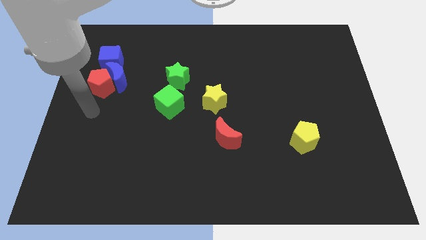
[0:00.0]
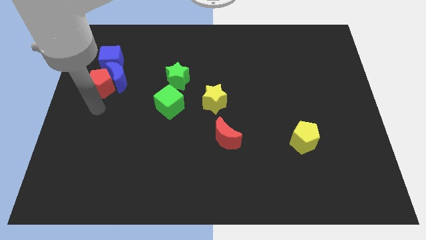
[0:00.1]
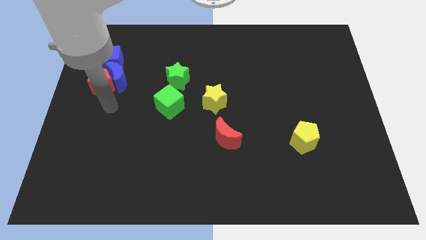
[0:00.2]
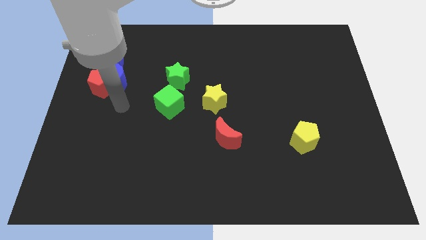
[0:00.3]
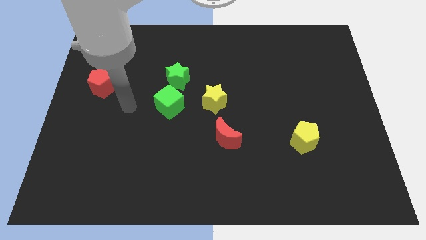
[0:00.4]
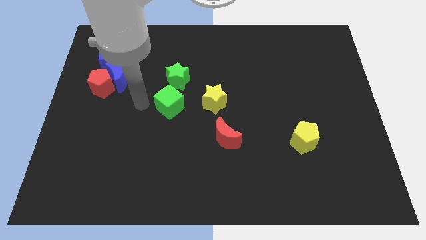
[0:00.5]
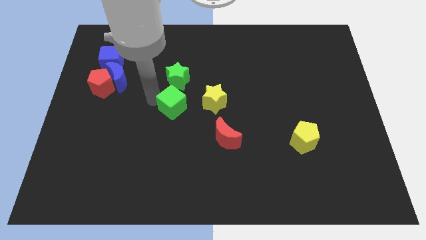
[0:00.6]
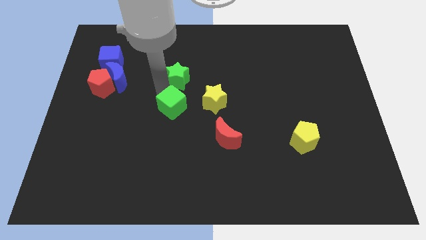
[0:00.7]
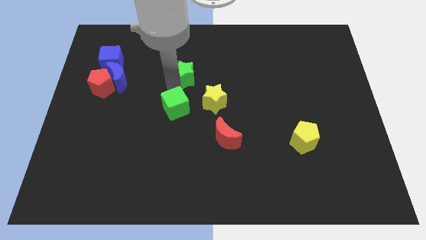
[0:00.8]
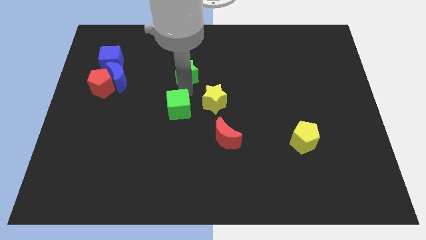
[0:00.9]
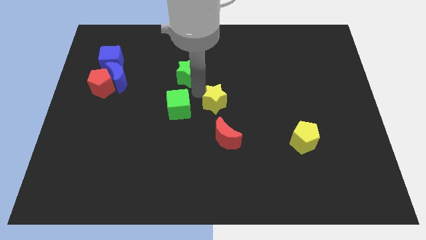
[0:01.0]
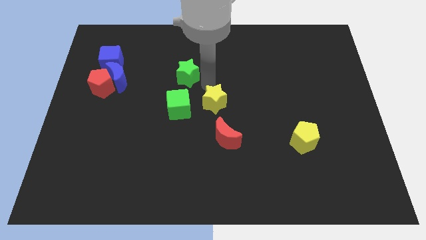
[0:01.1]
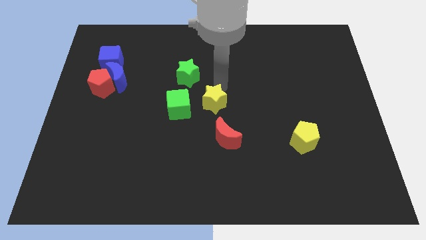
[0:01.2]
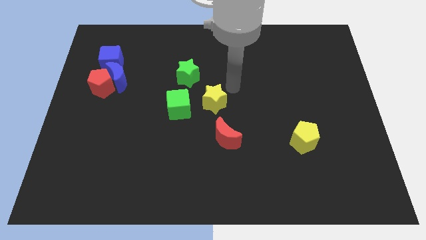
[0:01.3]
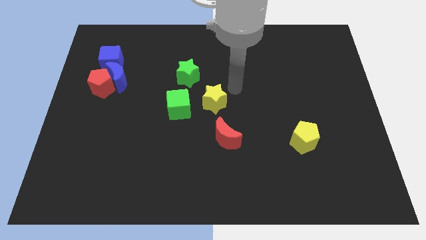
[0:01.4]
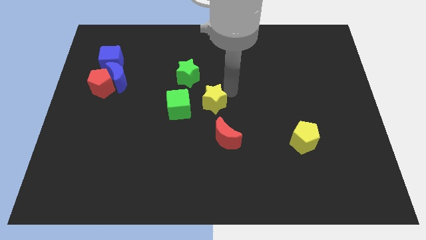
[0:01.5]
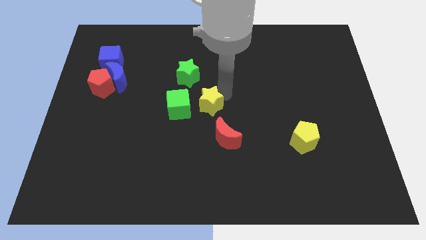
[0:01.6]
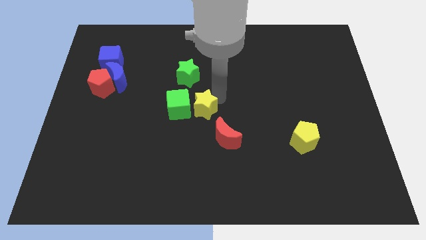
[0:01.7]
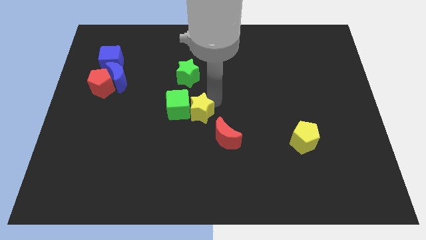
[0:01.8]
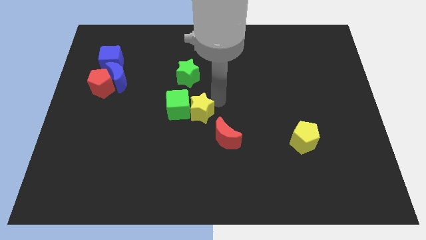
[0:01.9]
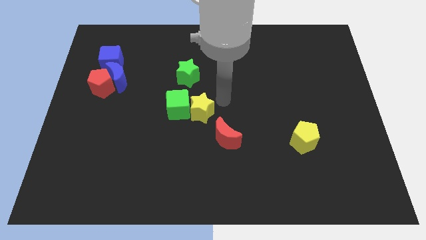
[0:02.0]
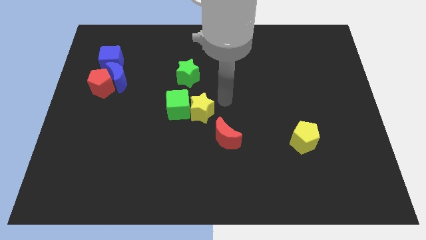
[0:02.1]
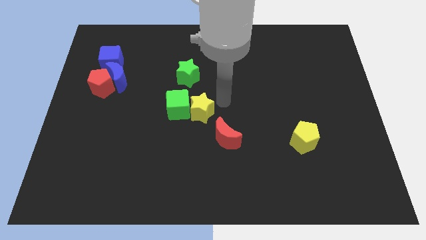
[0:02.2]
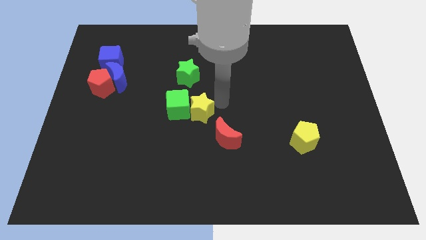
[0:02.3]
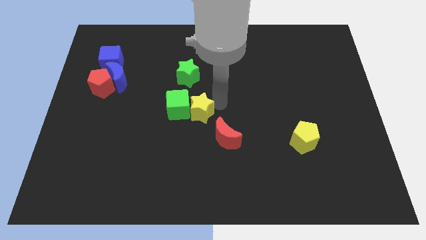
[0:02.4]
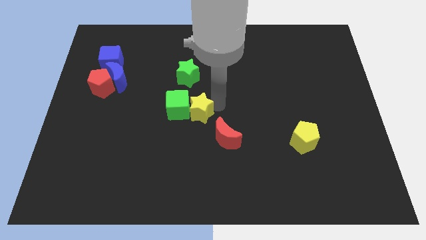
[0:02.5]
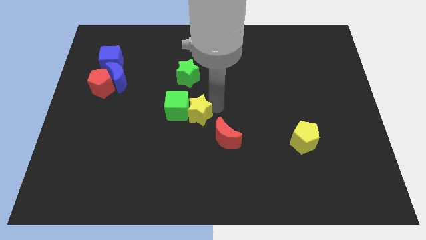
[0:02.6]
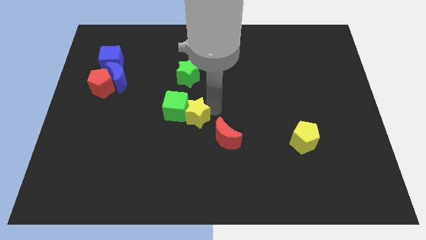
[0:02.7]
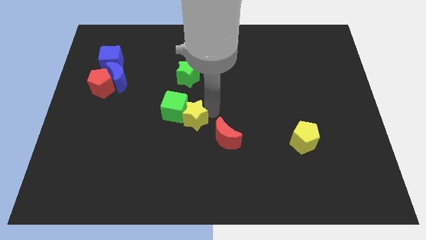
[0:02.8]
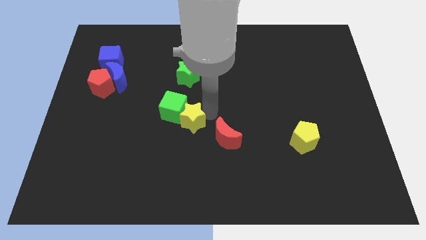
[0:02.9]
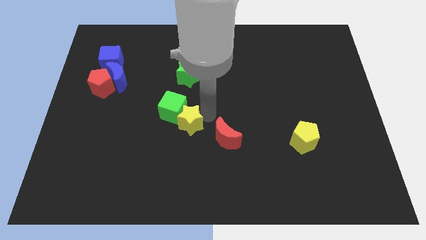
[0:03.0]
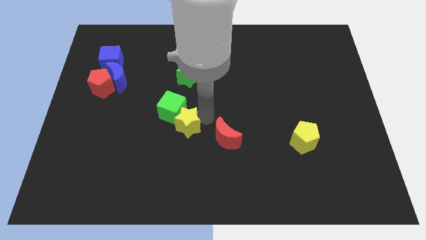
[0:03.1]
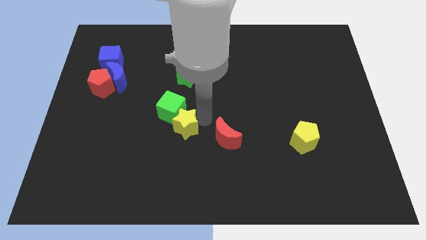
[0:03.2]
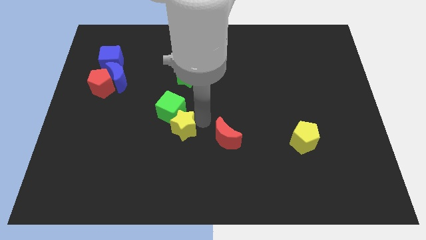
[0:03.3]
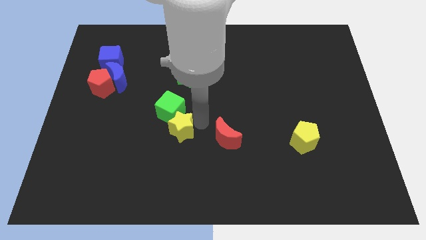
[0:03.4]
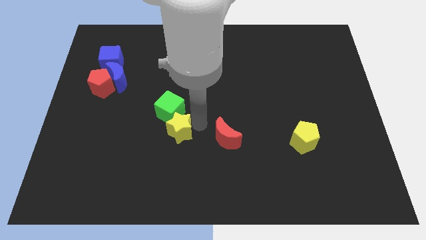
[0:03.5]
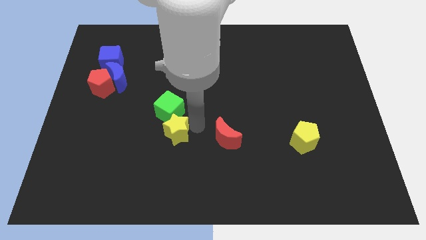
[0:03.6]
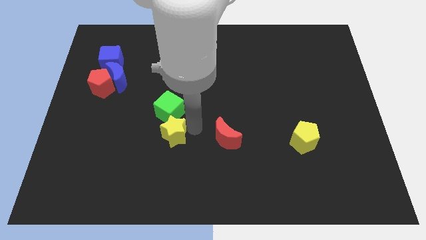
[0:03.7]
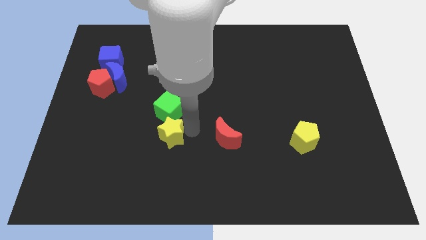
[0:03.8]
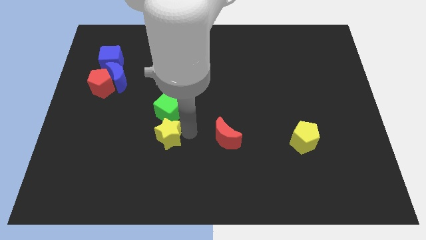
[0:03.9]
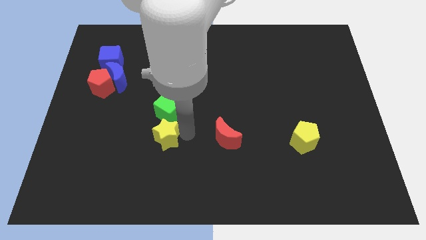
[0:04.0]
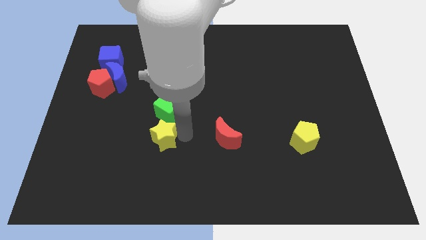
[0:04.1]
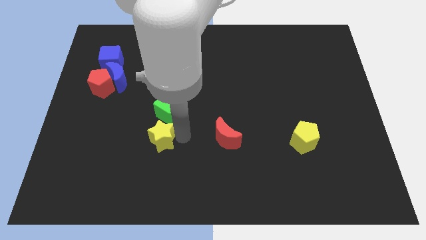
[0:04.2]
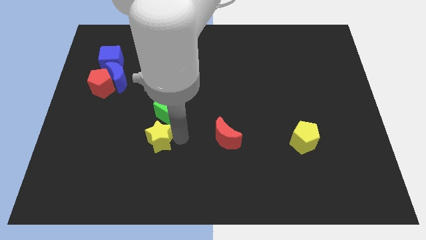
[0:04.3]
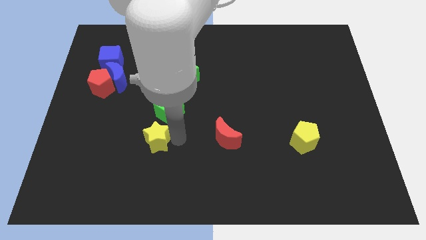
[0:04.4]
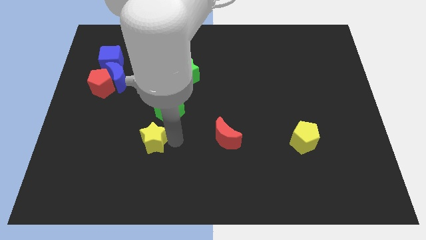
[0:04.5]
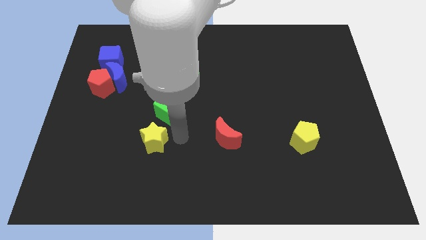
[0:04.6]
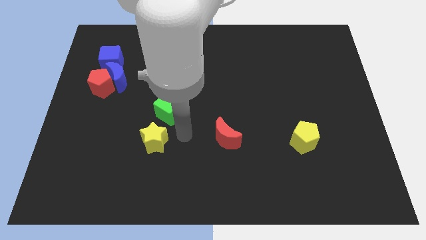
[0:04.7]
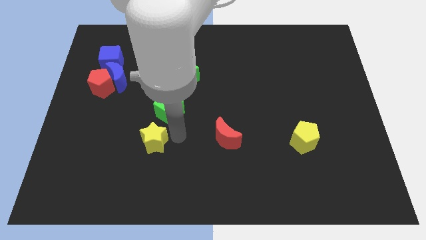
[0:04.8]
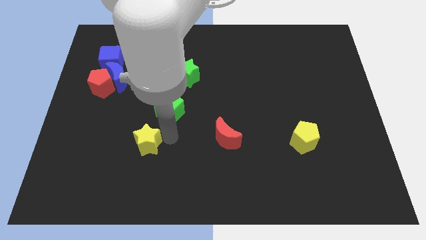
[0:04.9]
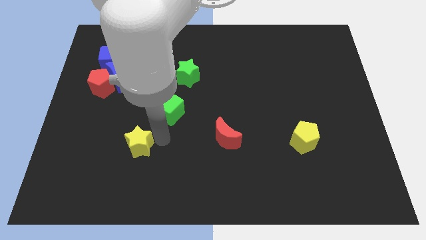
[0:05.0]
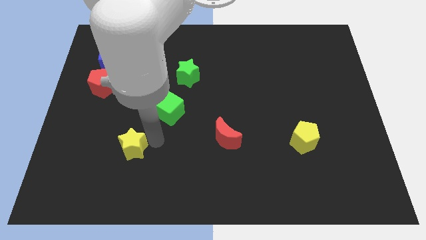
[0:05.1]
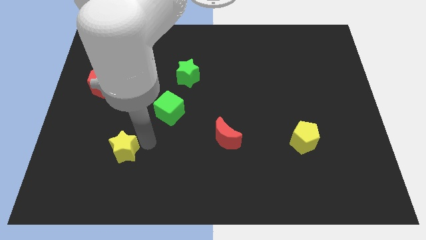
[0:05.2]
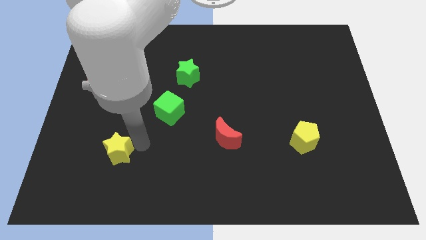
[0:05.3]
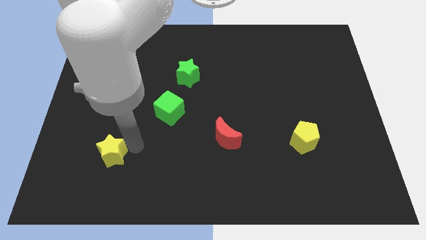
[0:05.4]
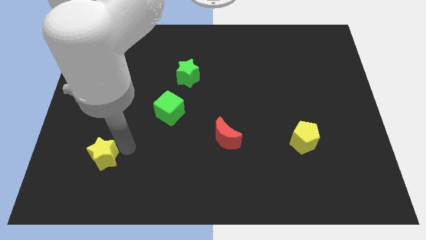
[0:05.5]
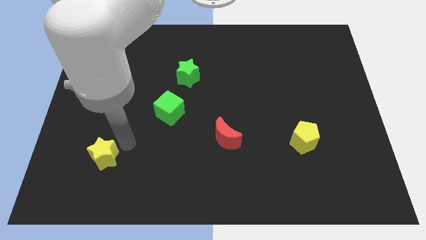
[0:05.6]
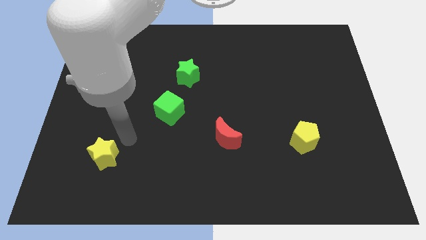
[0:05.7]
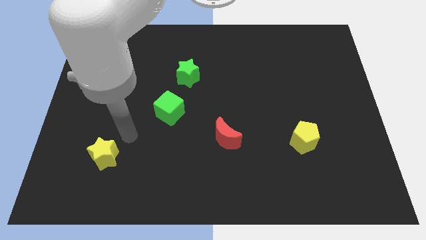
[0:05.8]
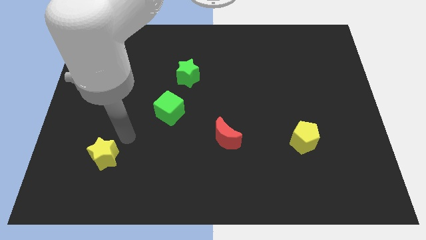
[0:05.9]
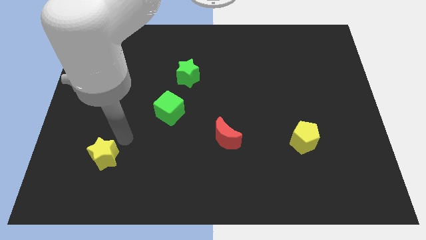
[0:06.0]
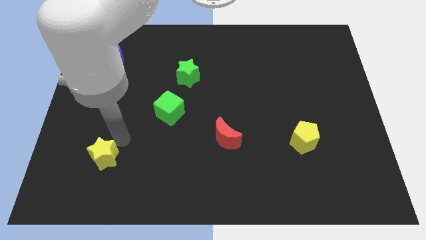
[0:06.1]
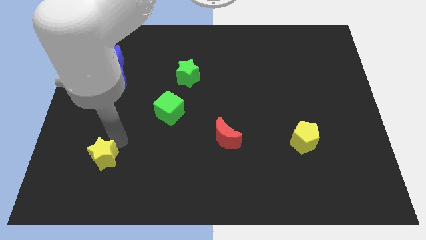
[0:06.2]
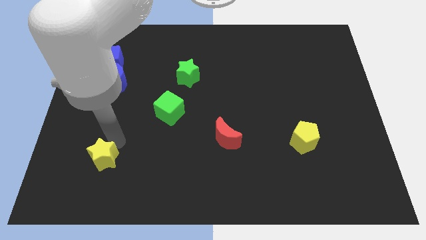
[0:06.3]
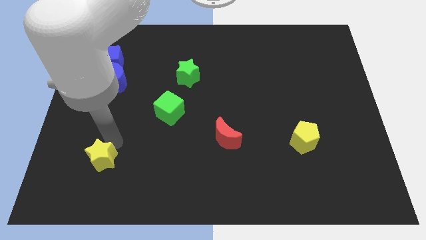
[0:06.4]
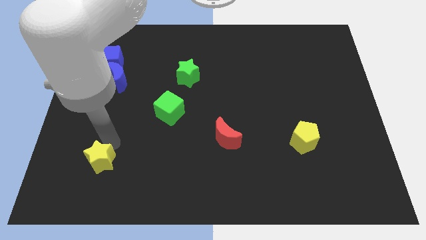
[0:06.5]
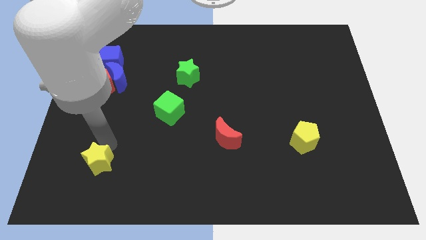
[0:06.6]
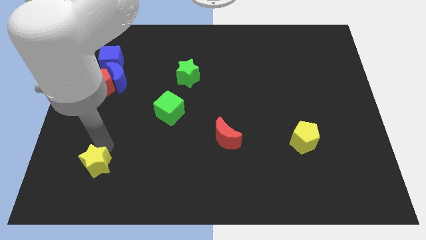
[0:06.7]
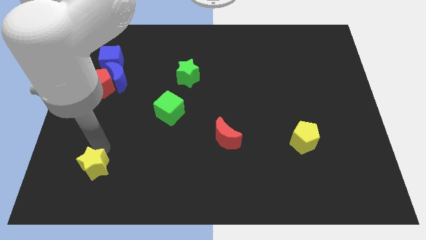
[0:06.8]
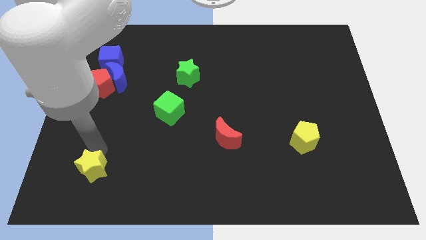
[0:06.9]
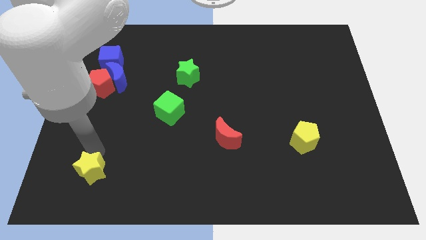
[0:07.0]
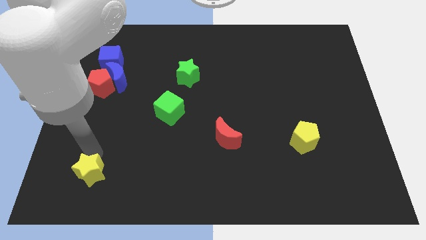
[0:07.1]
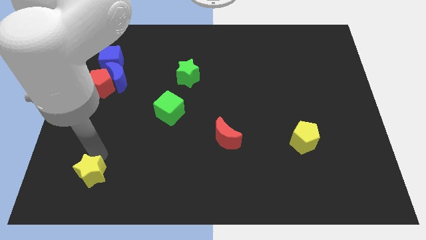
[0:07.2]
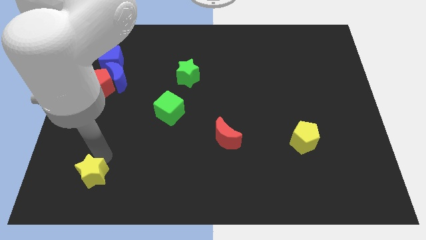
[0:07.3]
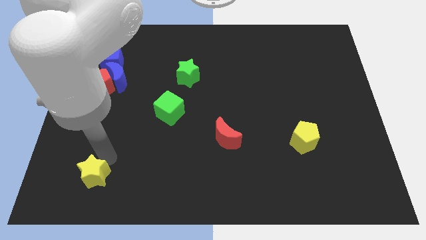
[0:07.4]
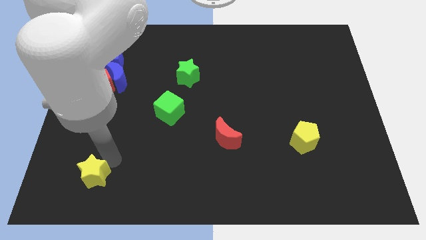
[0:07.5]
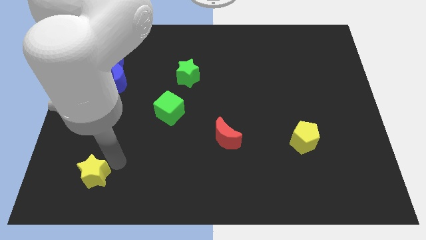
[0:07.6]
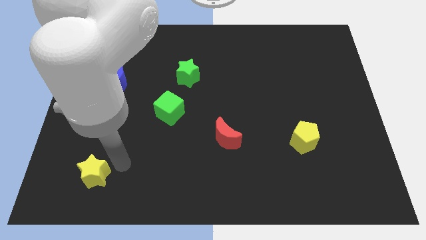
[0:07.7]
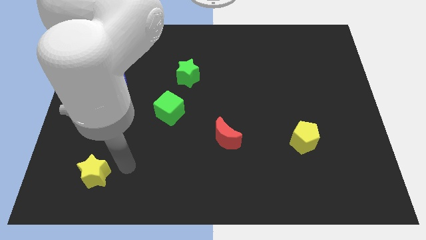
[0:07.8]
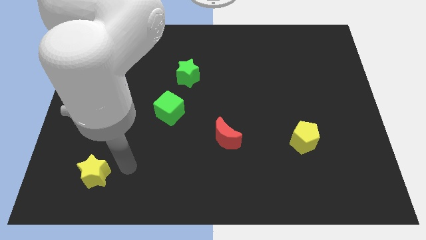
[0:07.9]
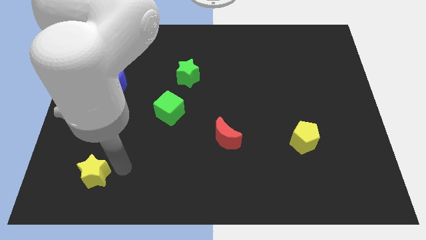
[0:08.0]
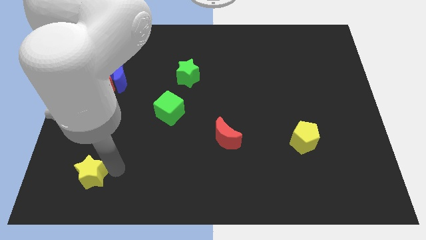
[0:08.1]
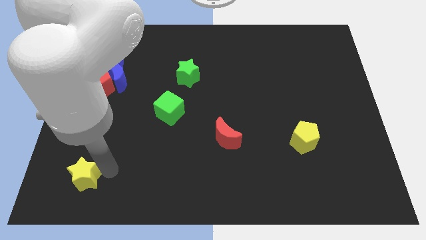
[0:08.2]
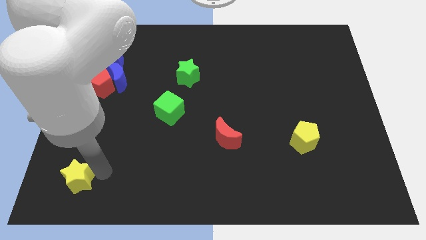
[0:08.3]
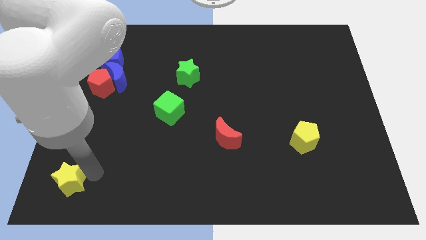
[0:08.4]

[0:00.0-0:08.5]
move the yellow star to the lower left corner
